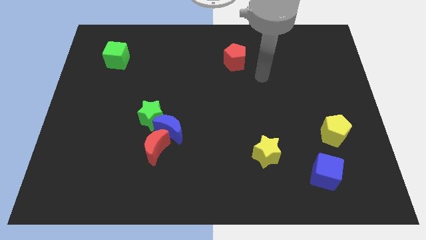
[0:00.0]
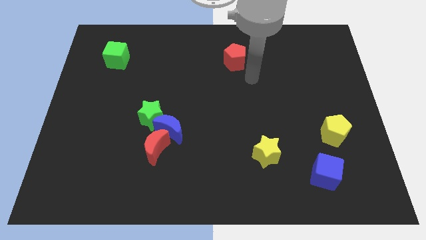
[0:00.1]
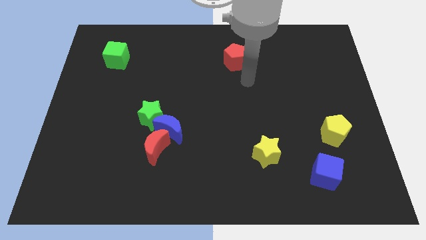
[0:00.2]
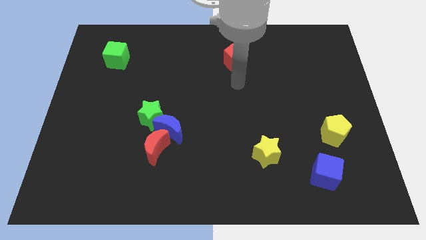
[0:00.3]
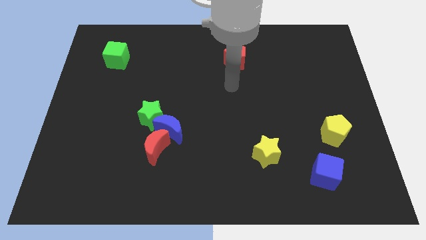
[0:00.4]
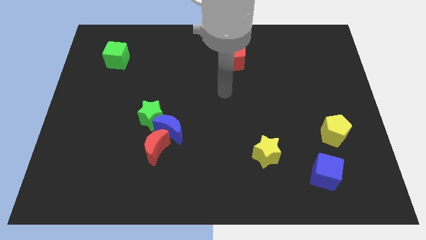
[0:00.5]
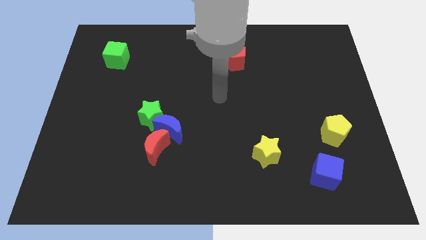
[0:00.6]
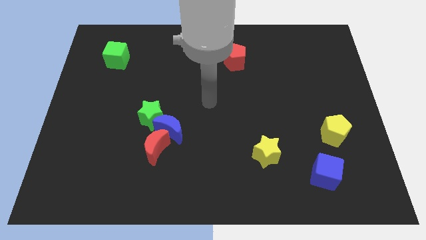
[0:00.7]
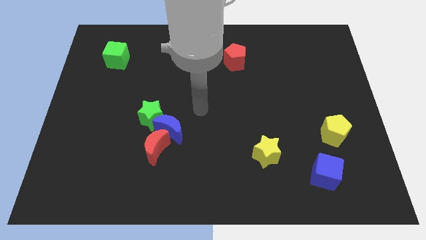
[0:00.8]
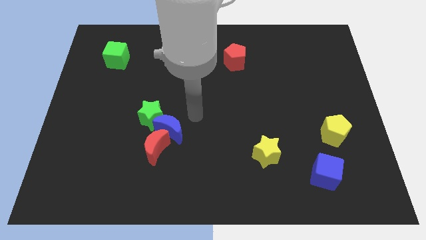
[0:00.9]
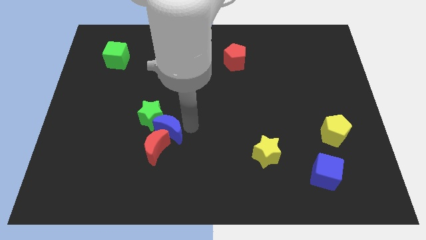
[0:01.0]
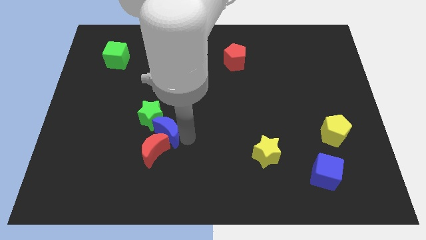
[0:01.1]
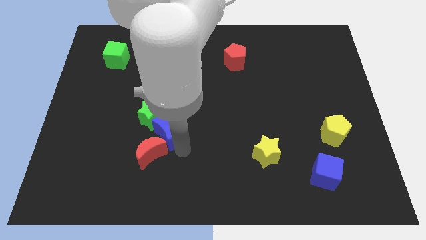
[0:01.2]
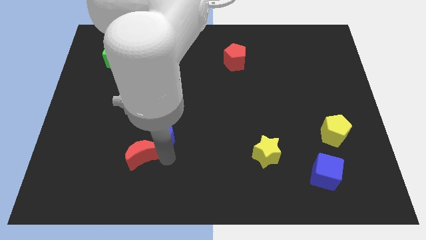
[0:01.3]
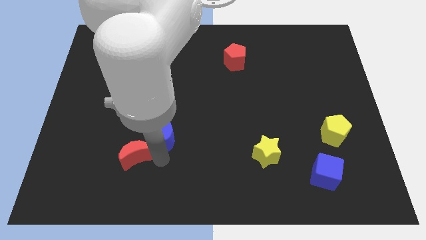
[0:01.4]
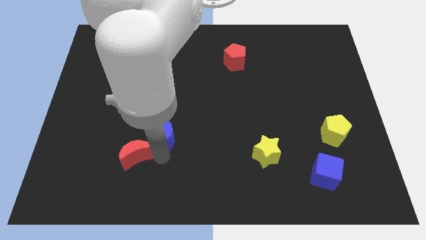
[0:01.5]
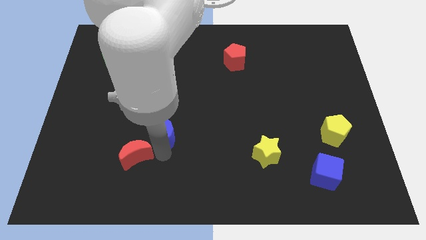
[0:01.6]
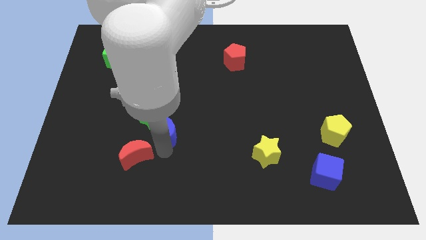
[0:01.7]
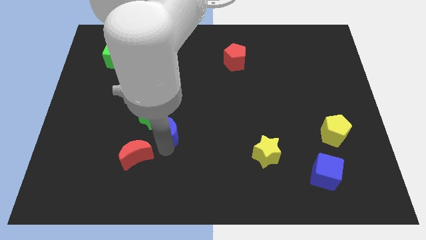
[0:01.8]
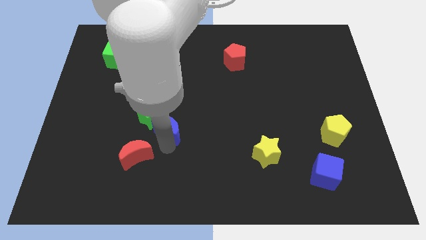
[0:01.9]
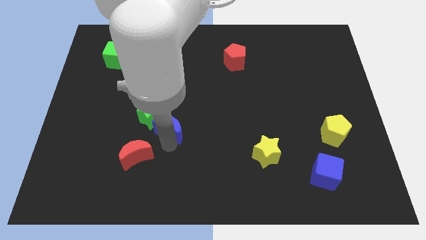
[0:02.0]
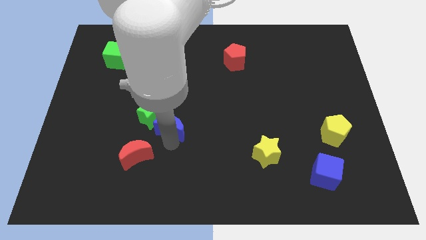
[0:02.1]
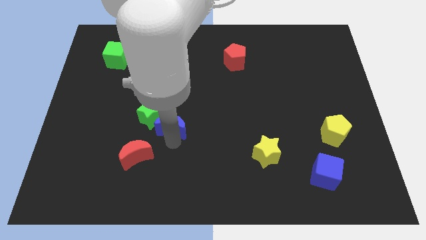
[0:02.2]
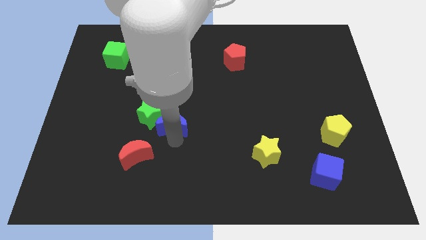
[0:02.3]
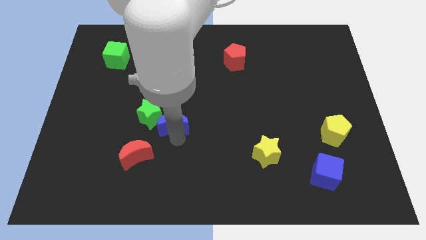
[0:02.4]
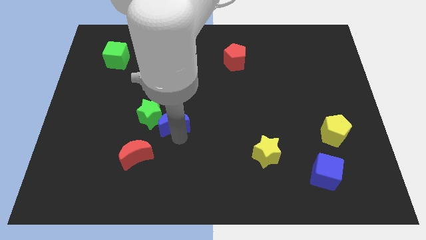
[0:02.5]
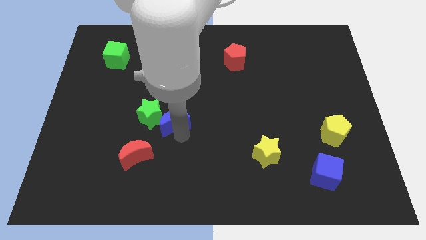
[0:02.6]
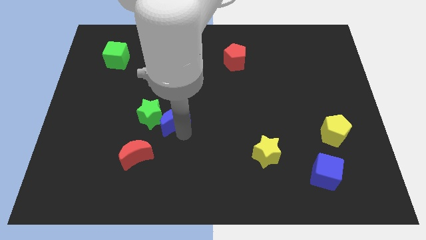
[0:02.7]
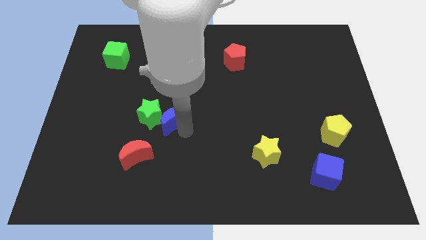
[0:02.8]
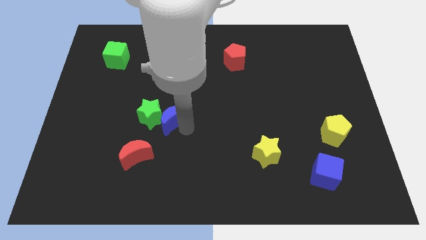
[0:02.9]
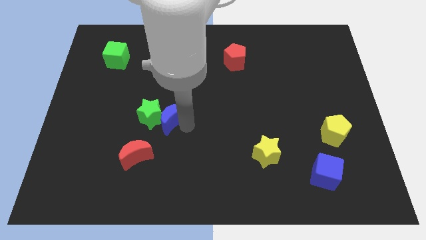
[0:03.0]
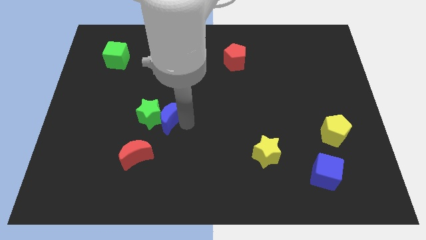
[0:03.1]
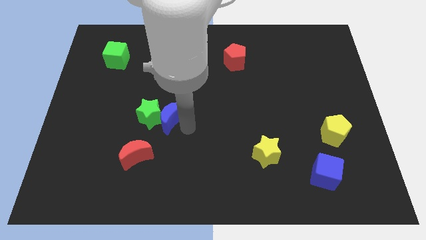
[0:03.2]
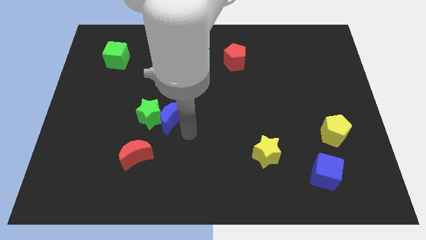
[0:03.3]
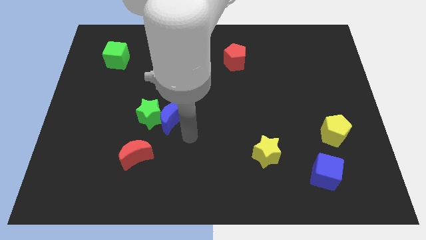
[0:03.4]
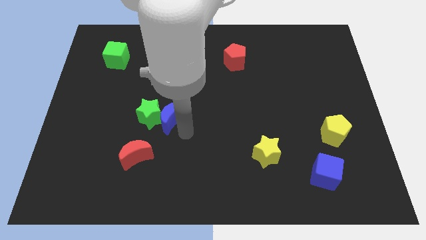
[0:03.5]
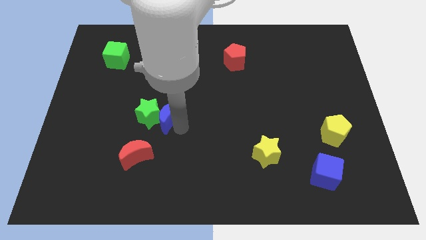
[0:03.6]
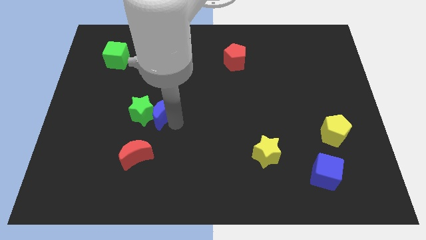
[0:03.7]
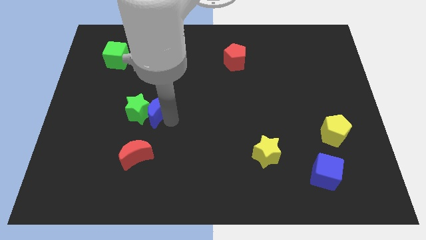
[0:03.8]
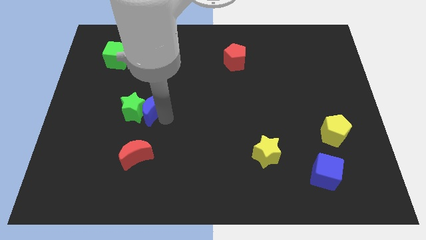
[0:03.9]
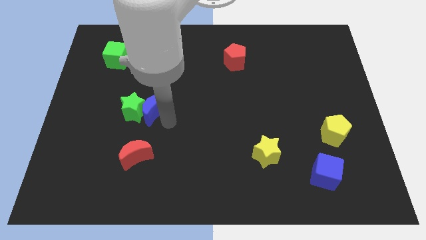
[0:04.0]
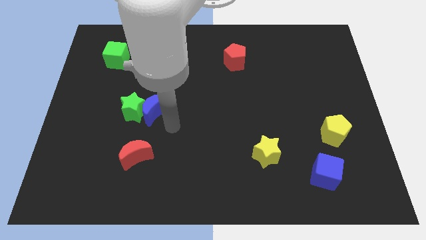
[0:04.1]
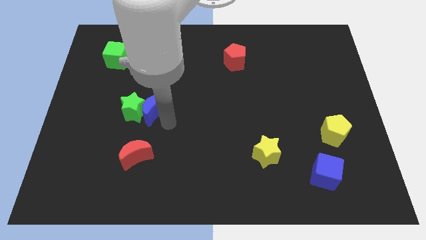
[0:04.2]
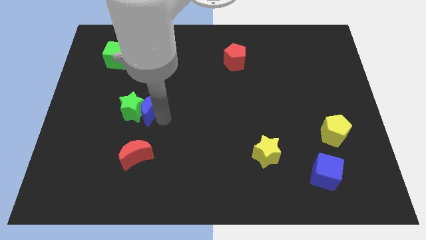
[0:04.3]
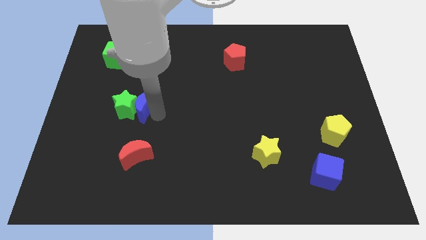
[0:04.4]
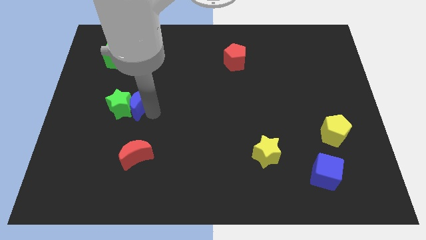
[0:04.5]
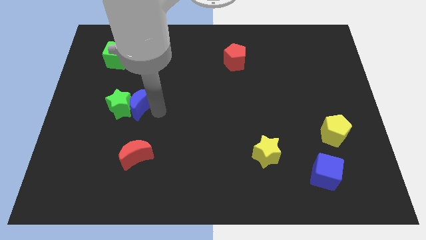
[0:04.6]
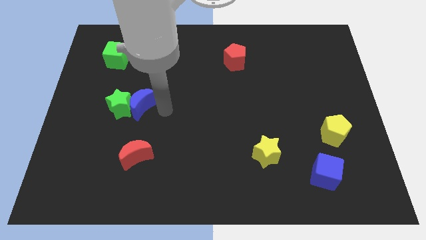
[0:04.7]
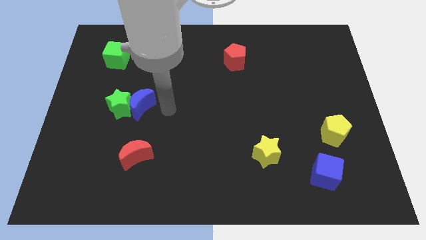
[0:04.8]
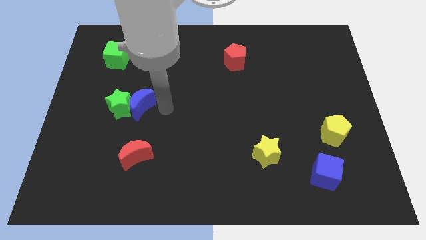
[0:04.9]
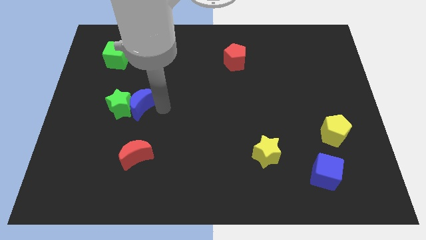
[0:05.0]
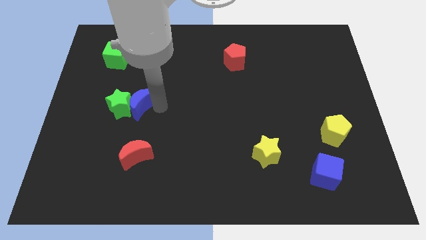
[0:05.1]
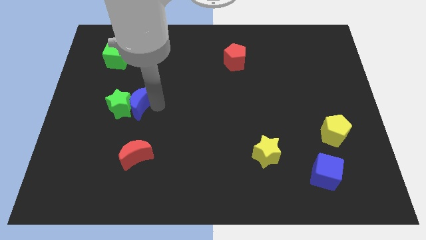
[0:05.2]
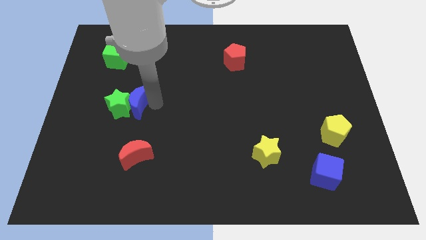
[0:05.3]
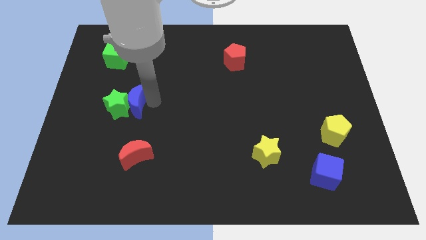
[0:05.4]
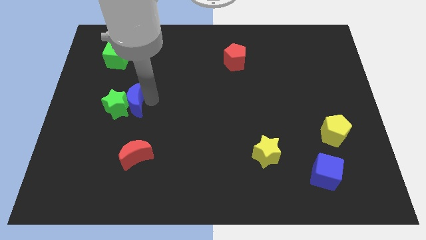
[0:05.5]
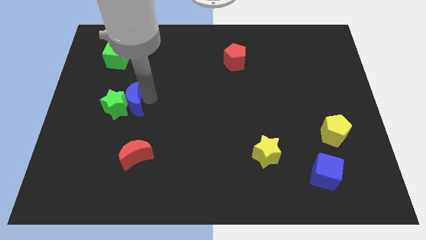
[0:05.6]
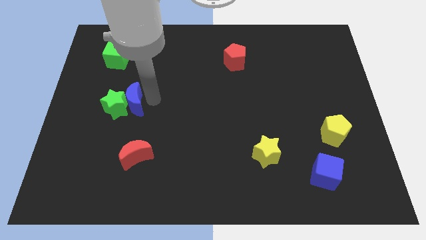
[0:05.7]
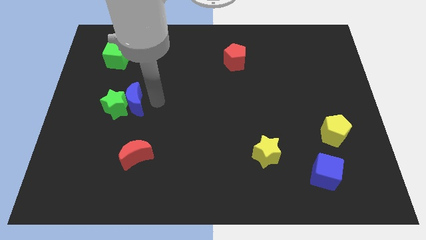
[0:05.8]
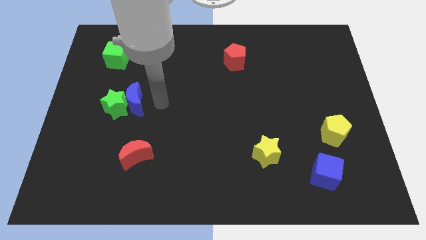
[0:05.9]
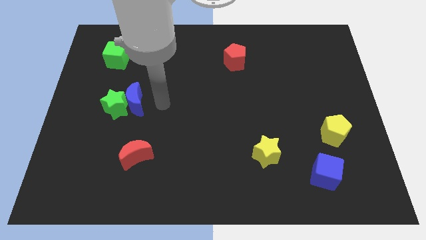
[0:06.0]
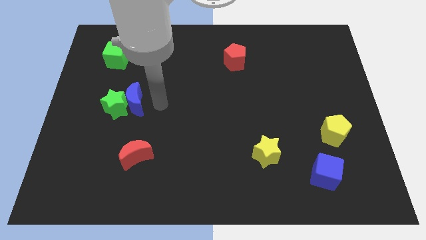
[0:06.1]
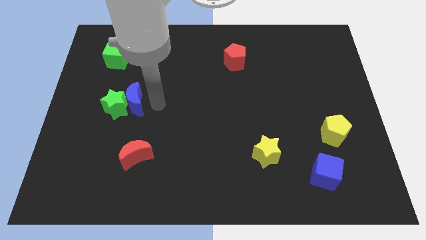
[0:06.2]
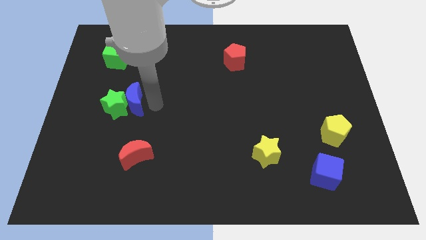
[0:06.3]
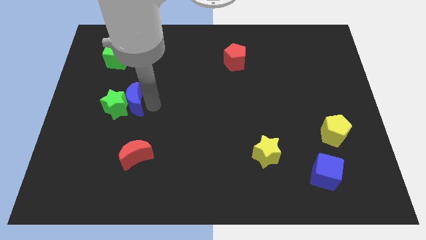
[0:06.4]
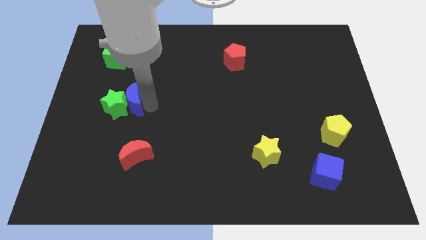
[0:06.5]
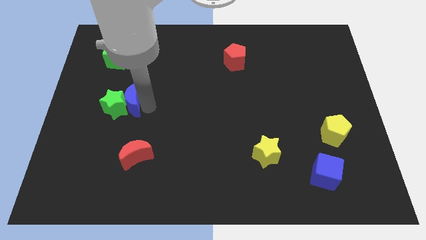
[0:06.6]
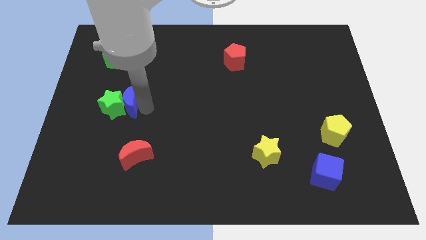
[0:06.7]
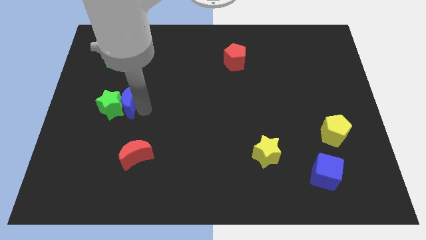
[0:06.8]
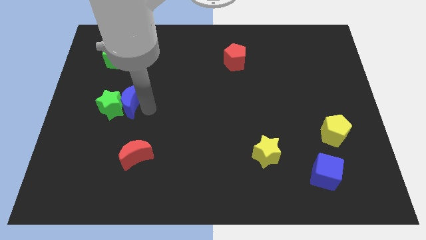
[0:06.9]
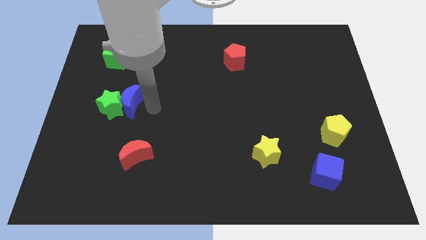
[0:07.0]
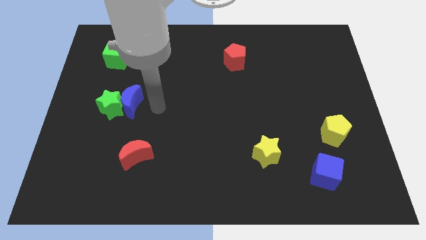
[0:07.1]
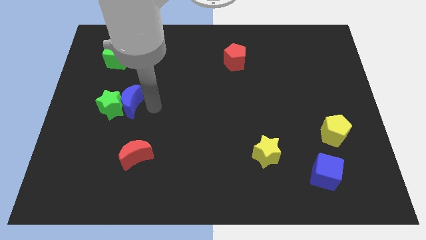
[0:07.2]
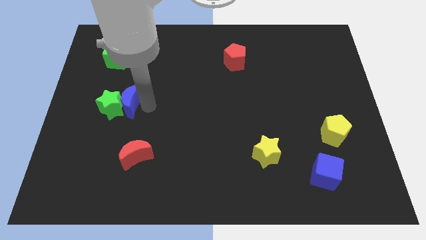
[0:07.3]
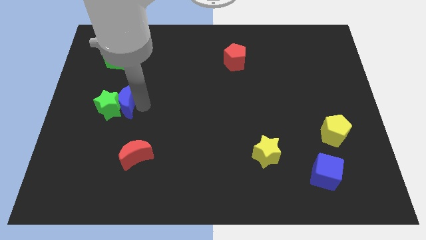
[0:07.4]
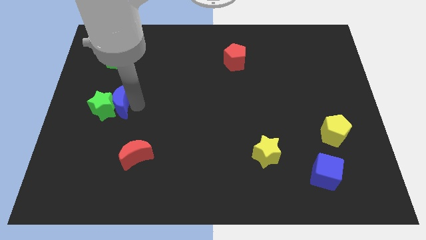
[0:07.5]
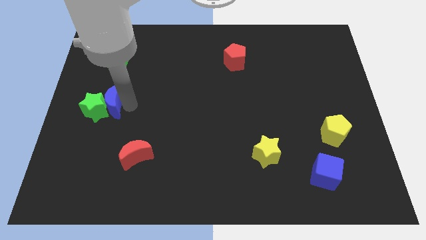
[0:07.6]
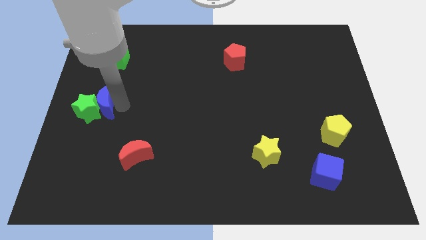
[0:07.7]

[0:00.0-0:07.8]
move the blue moon to the left side of the board
